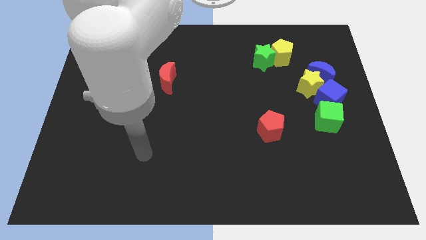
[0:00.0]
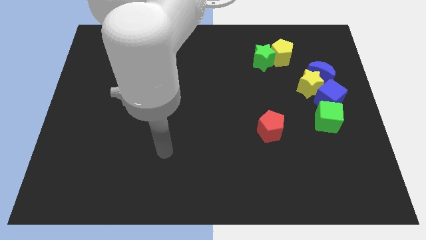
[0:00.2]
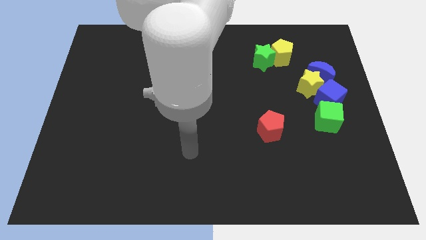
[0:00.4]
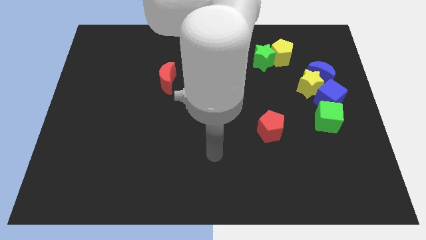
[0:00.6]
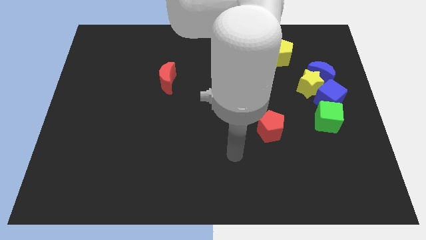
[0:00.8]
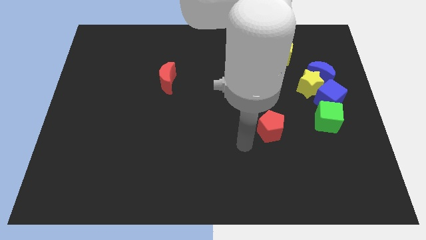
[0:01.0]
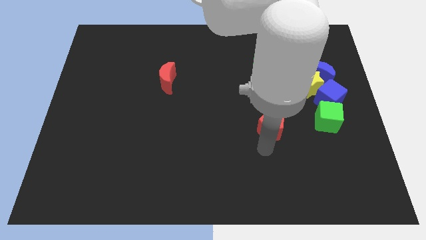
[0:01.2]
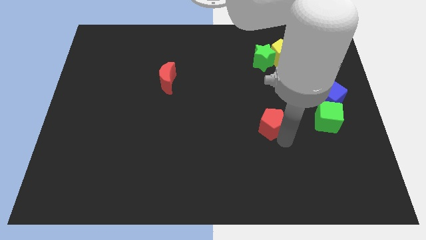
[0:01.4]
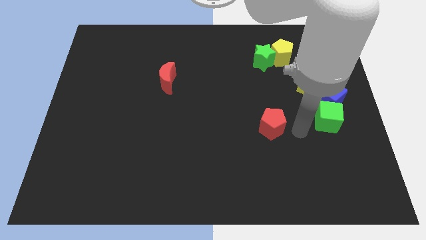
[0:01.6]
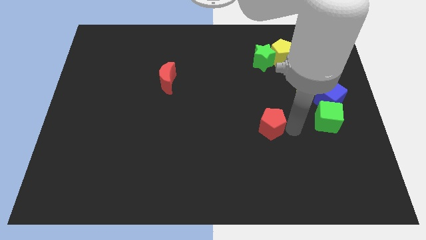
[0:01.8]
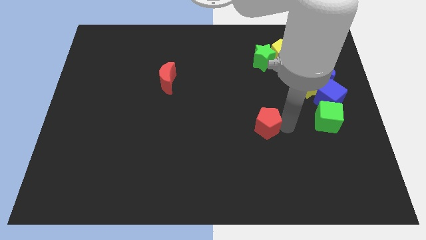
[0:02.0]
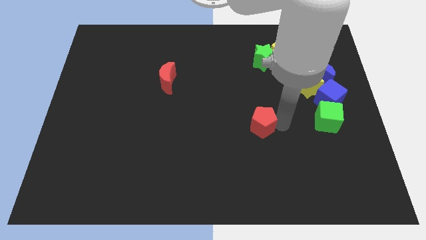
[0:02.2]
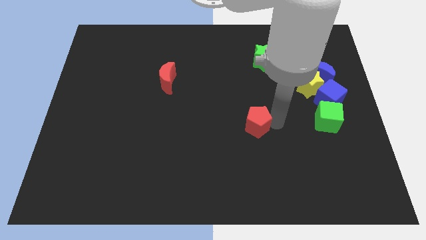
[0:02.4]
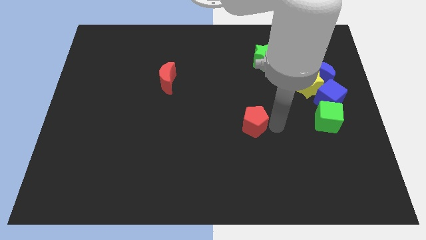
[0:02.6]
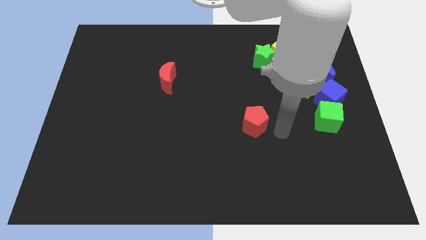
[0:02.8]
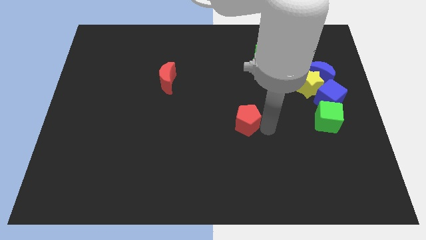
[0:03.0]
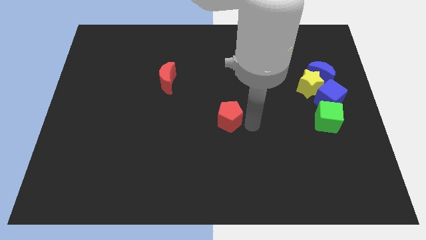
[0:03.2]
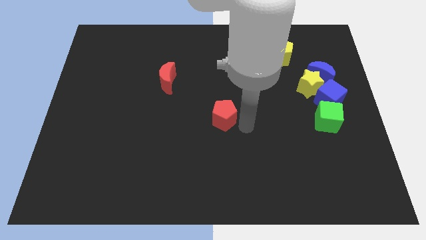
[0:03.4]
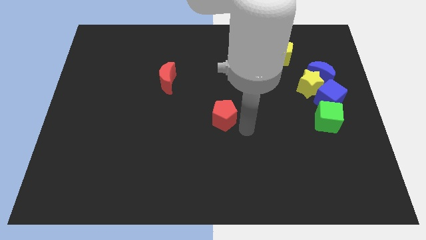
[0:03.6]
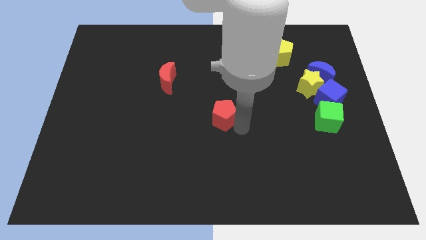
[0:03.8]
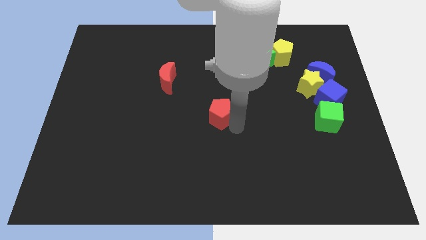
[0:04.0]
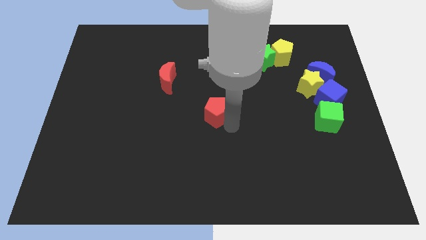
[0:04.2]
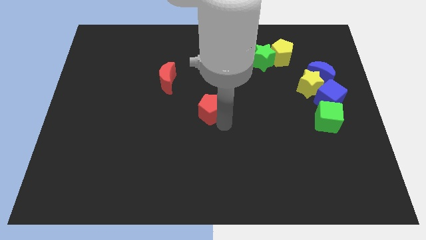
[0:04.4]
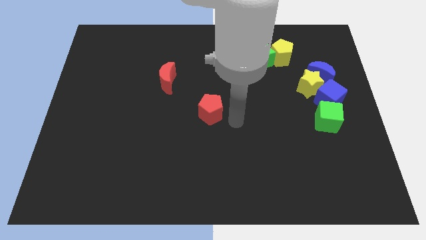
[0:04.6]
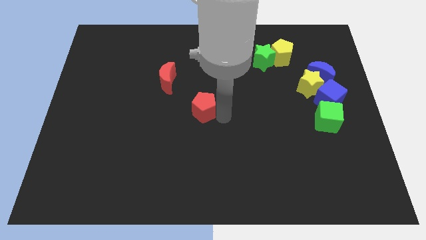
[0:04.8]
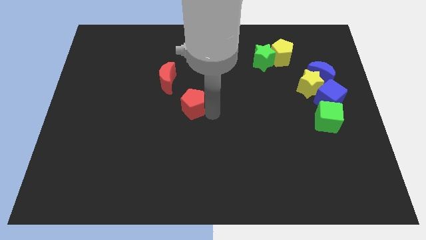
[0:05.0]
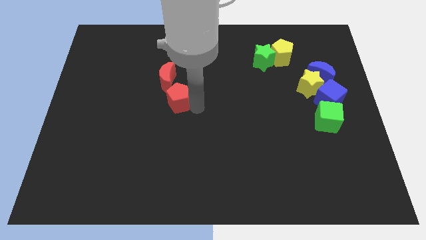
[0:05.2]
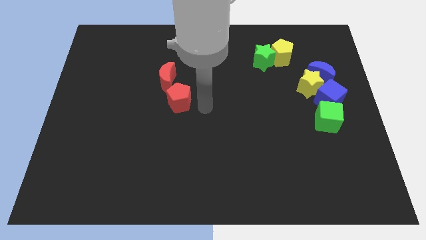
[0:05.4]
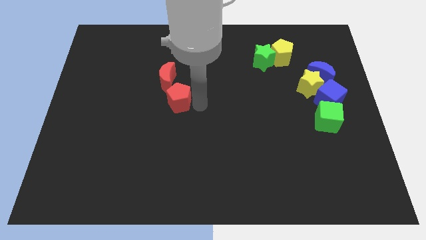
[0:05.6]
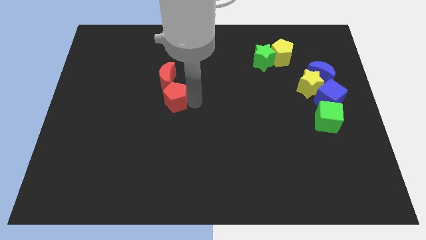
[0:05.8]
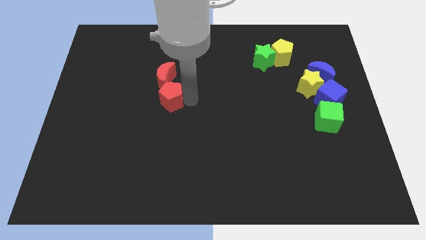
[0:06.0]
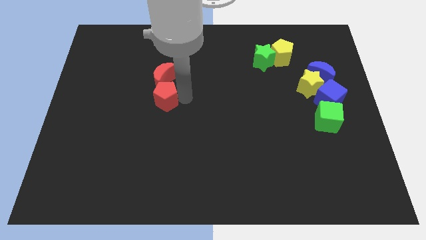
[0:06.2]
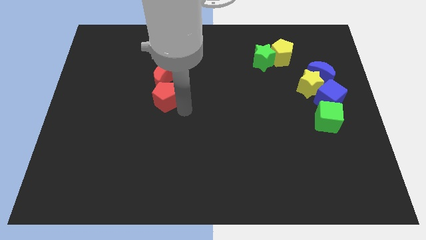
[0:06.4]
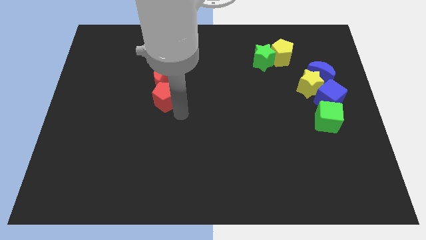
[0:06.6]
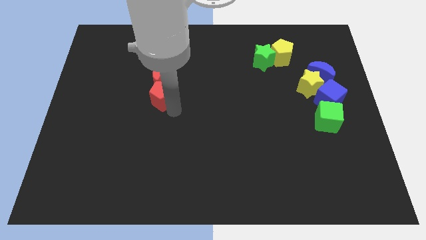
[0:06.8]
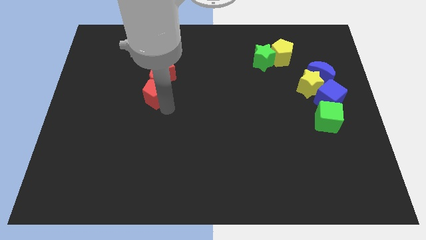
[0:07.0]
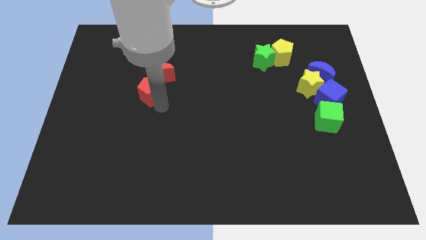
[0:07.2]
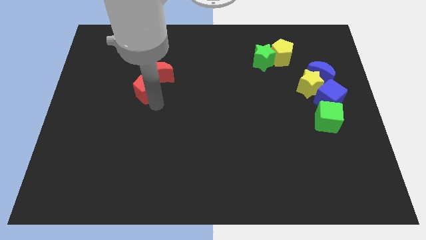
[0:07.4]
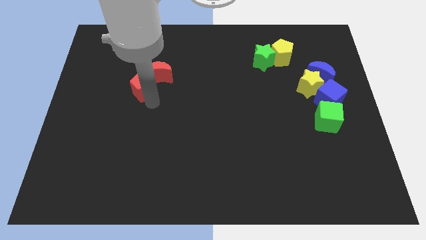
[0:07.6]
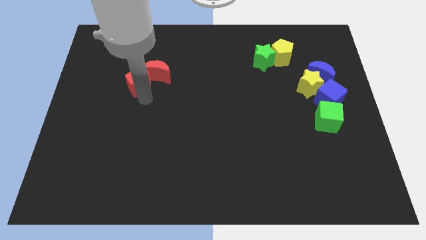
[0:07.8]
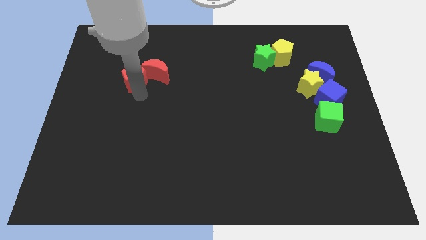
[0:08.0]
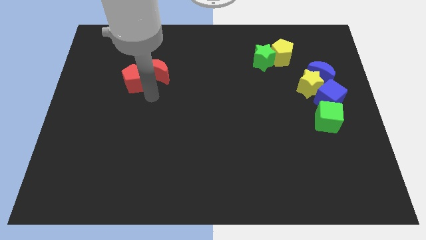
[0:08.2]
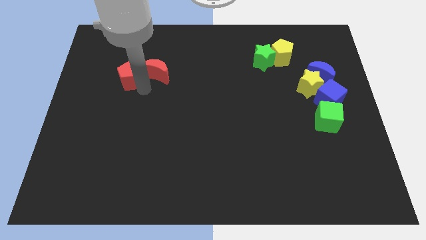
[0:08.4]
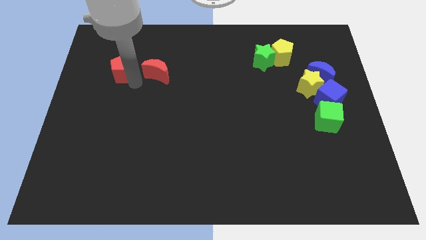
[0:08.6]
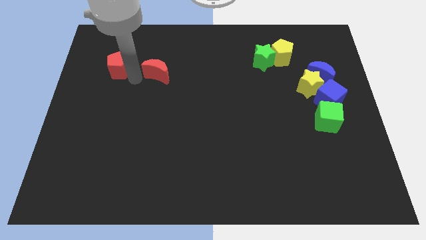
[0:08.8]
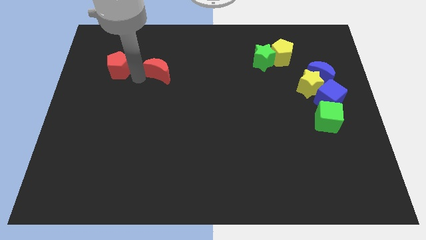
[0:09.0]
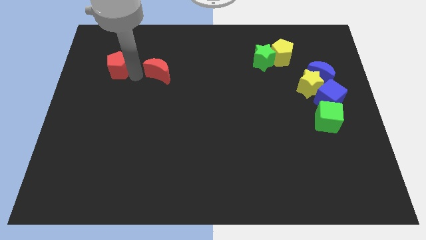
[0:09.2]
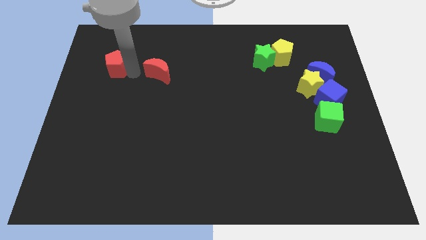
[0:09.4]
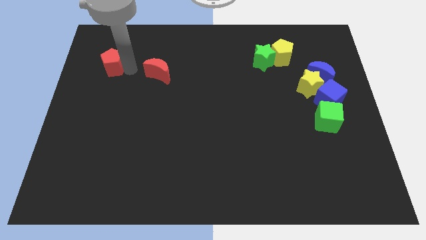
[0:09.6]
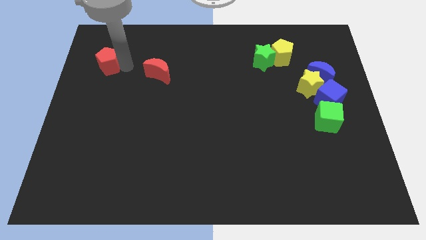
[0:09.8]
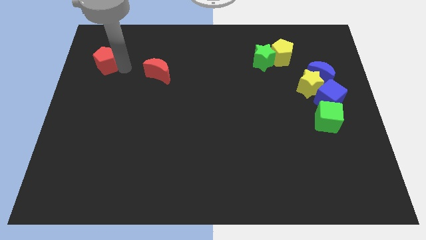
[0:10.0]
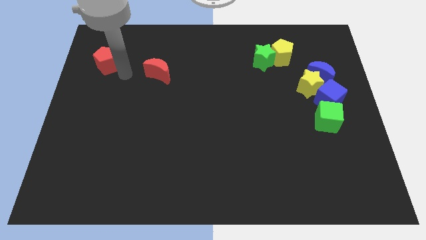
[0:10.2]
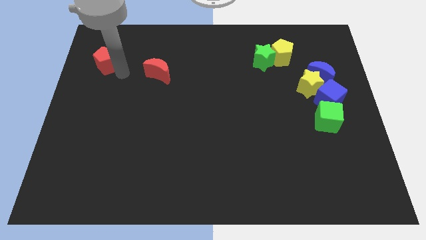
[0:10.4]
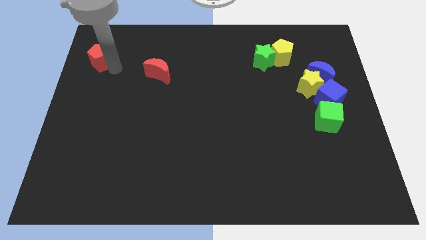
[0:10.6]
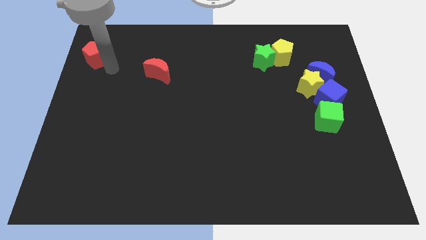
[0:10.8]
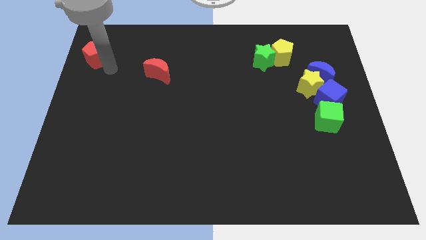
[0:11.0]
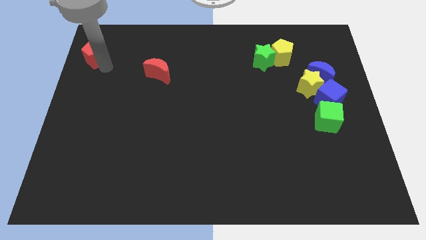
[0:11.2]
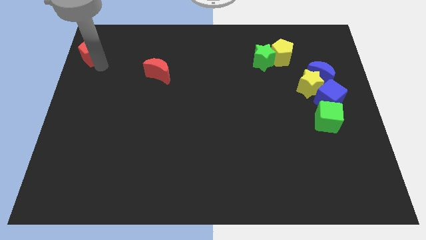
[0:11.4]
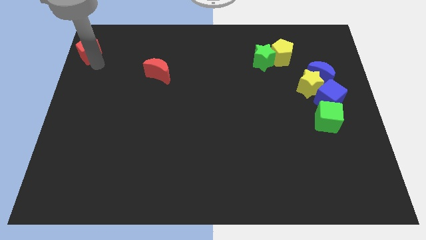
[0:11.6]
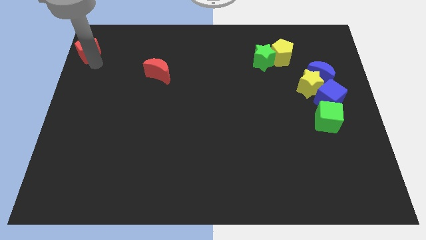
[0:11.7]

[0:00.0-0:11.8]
push the red pentagon to the upper left corner
